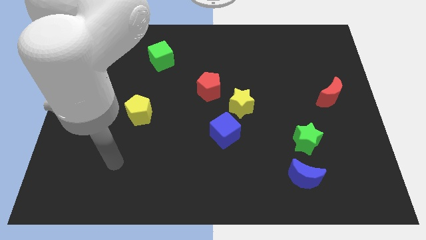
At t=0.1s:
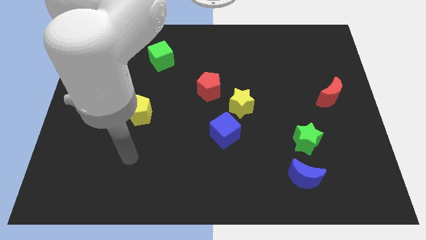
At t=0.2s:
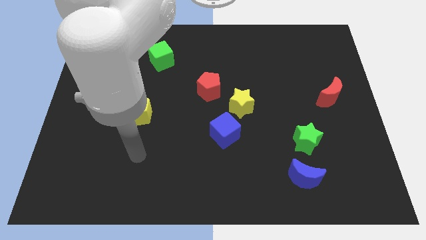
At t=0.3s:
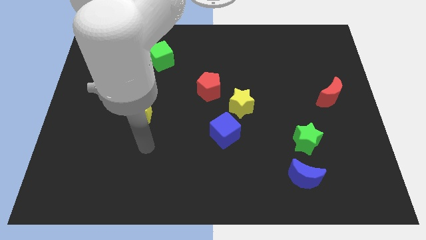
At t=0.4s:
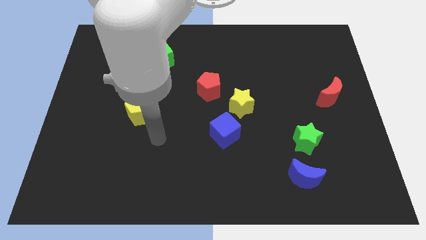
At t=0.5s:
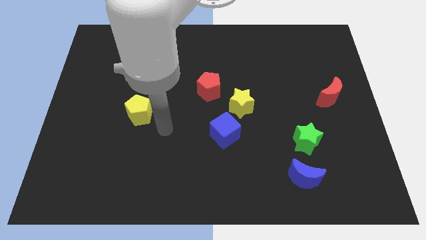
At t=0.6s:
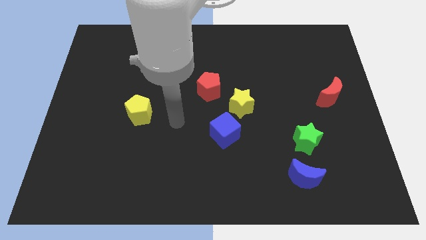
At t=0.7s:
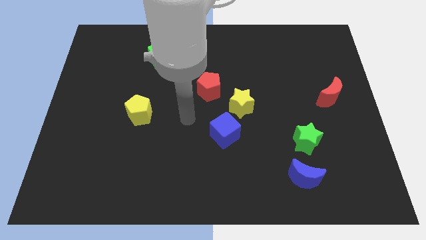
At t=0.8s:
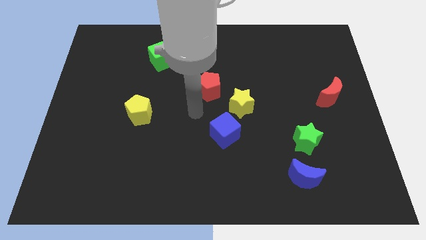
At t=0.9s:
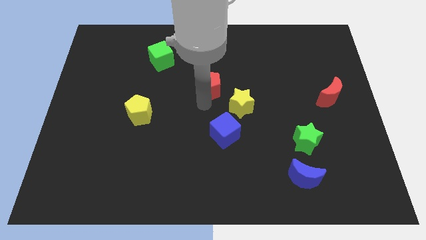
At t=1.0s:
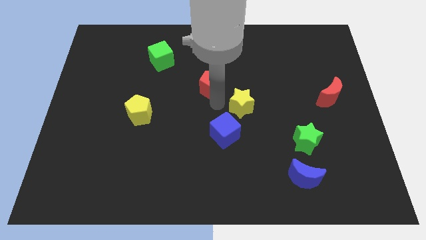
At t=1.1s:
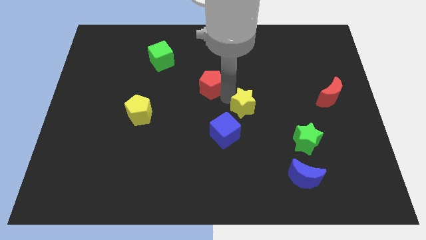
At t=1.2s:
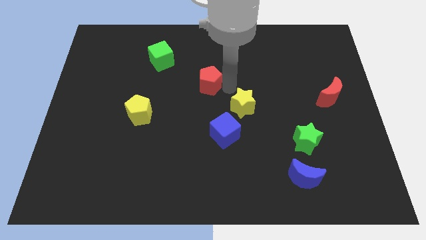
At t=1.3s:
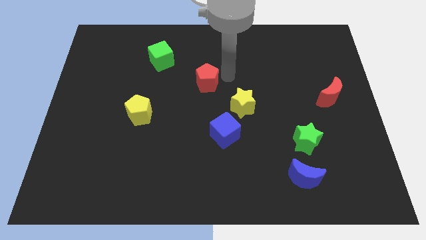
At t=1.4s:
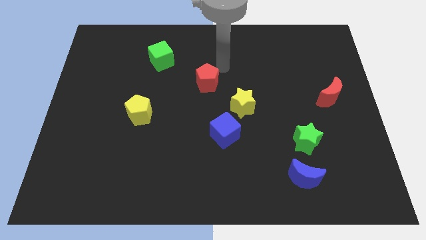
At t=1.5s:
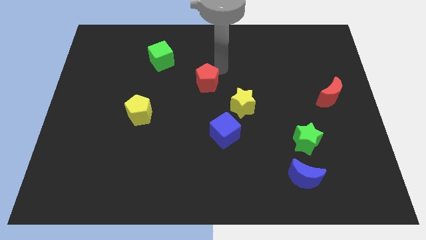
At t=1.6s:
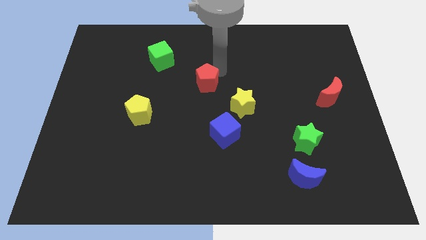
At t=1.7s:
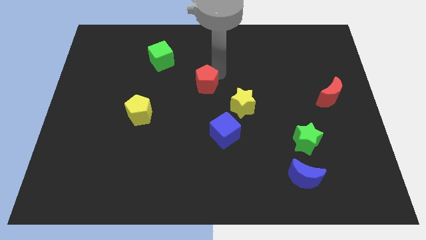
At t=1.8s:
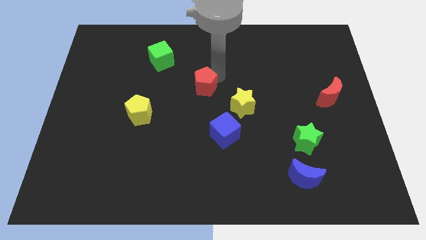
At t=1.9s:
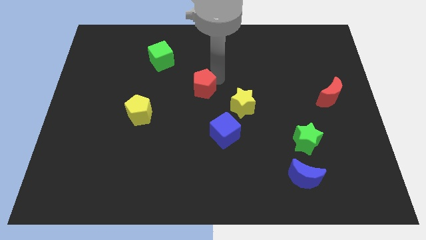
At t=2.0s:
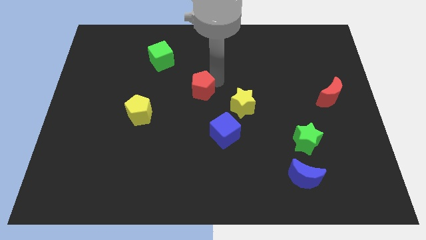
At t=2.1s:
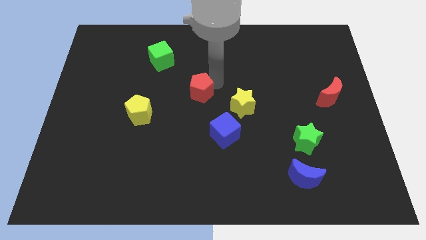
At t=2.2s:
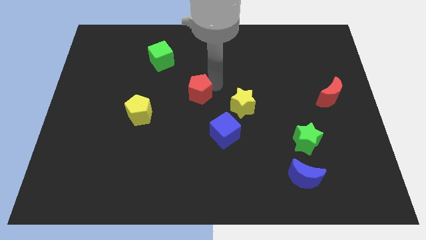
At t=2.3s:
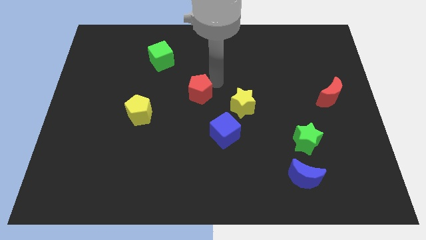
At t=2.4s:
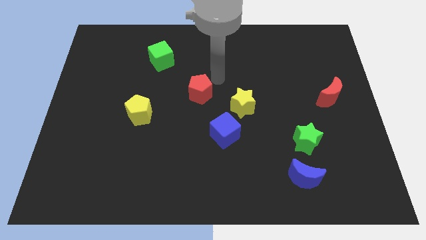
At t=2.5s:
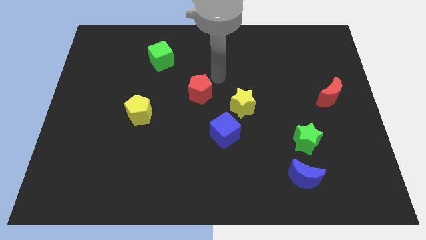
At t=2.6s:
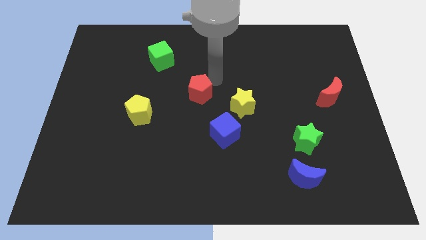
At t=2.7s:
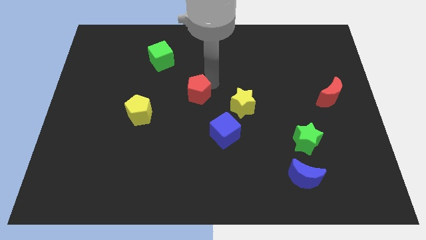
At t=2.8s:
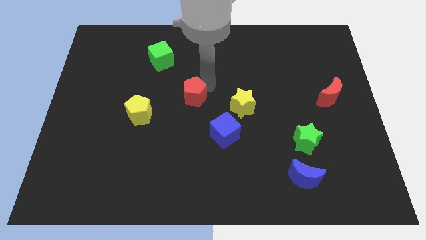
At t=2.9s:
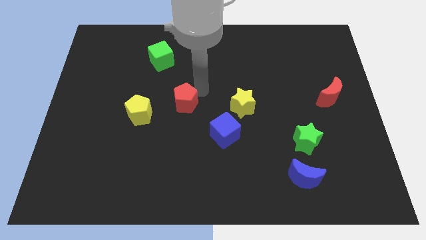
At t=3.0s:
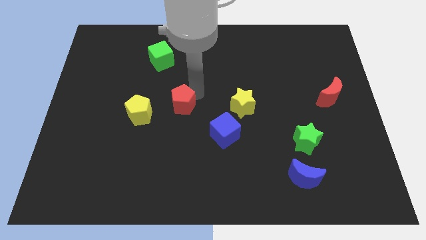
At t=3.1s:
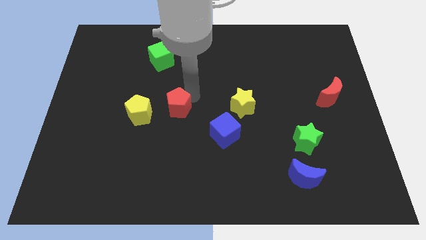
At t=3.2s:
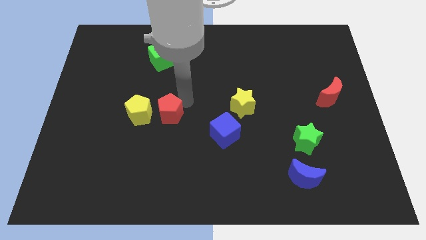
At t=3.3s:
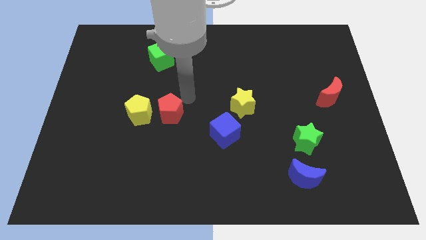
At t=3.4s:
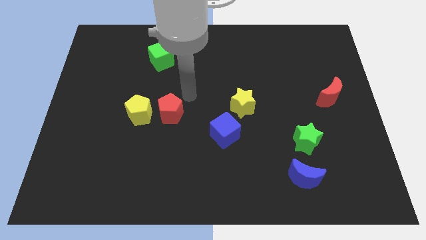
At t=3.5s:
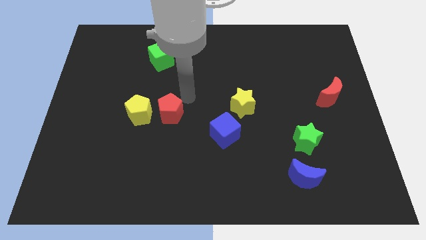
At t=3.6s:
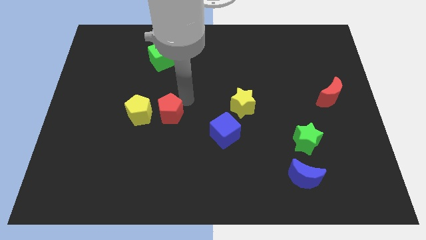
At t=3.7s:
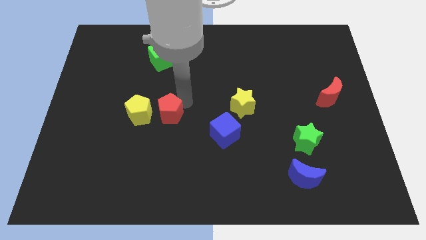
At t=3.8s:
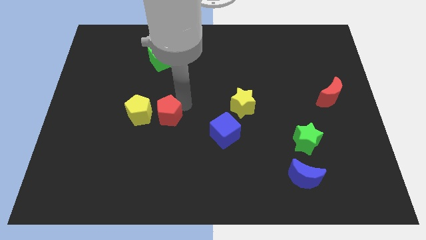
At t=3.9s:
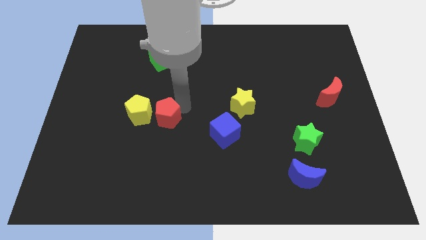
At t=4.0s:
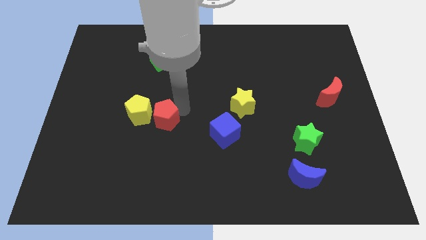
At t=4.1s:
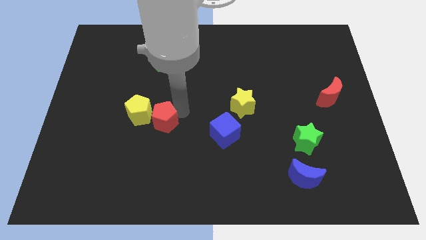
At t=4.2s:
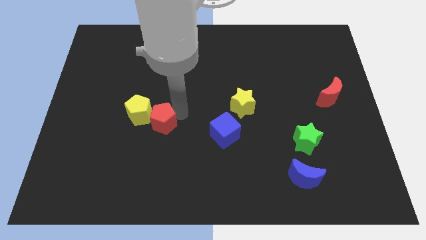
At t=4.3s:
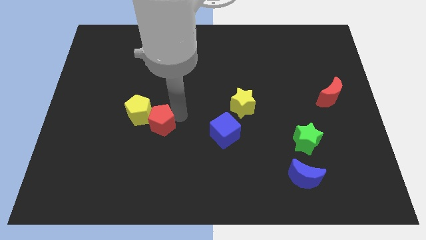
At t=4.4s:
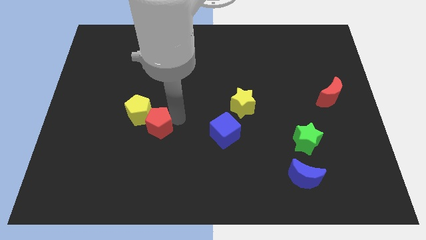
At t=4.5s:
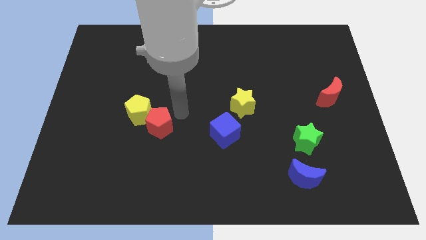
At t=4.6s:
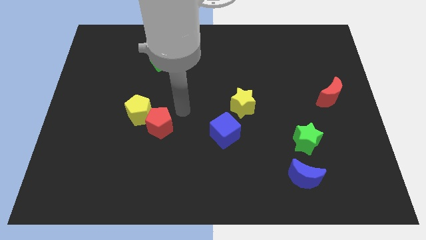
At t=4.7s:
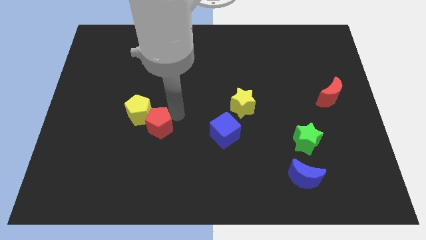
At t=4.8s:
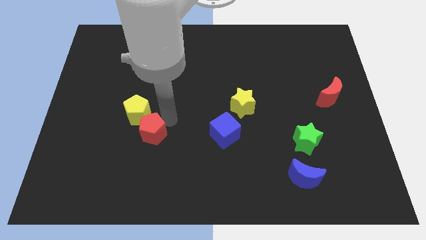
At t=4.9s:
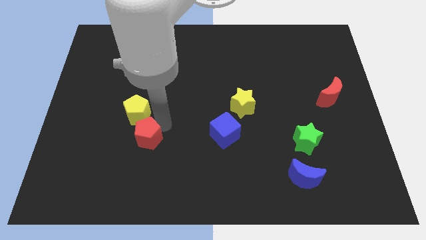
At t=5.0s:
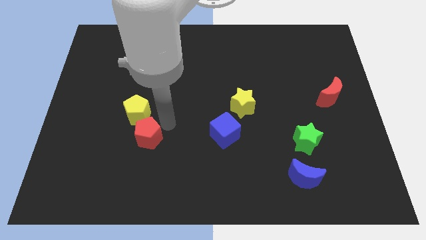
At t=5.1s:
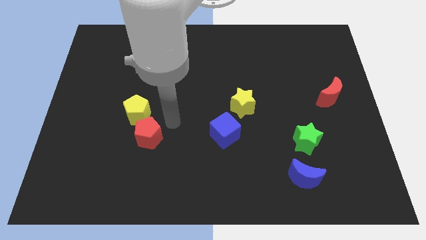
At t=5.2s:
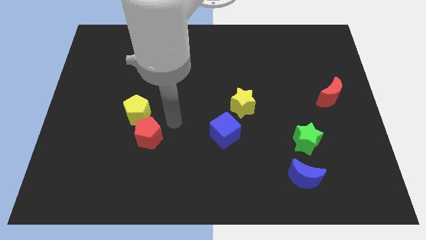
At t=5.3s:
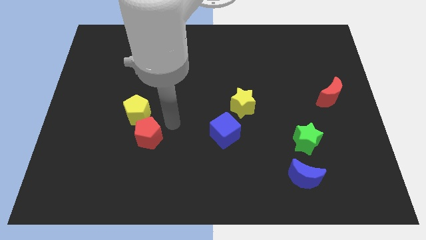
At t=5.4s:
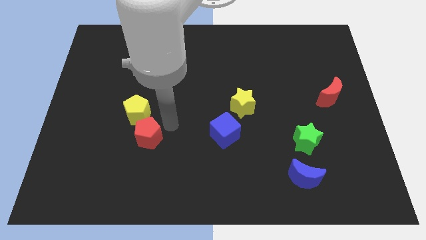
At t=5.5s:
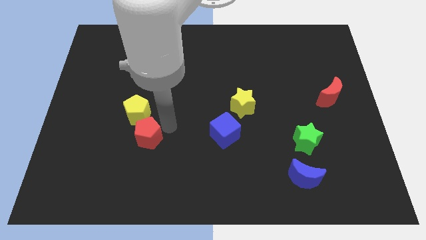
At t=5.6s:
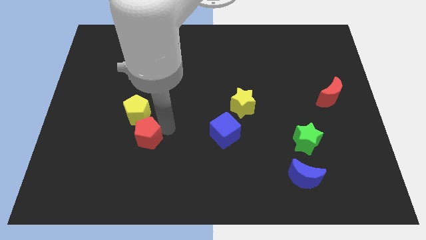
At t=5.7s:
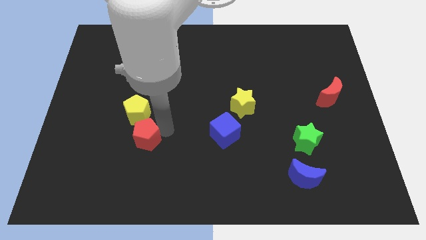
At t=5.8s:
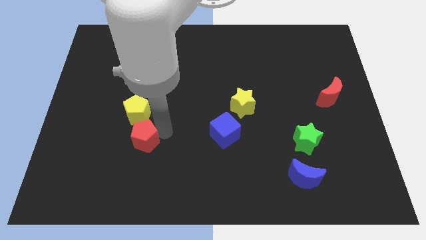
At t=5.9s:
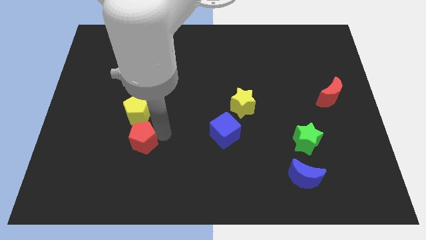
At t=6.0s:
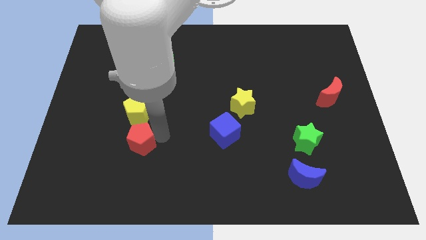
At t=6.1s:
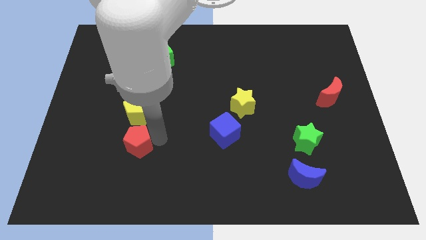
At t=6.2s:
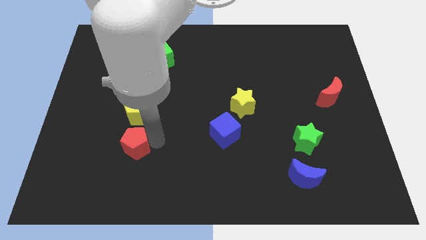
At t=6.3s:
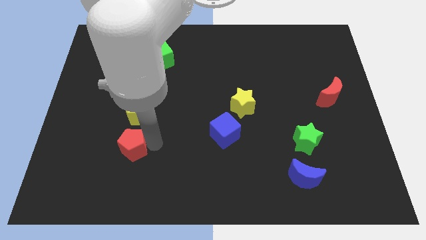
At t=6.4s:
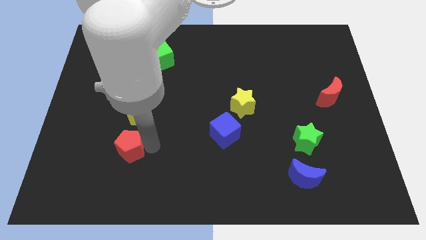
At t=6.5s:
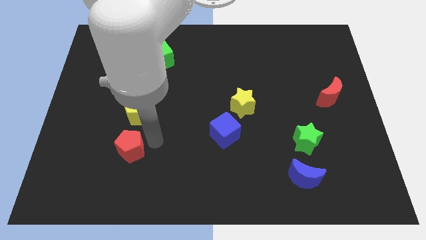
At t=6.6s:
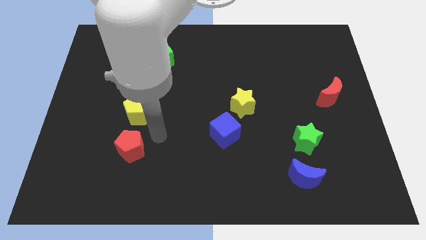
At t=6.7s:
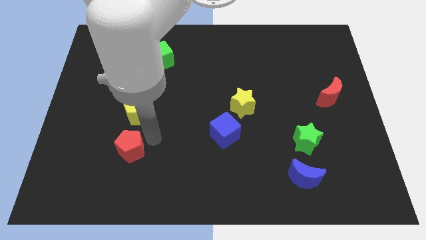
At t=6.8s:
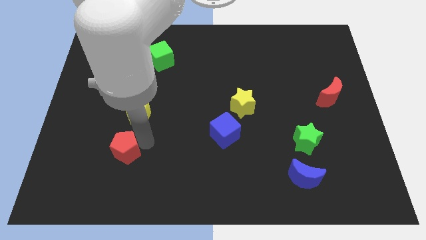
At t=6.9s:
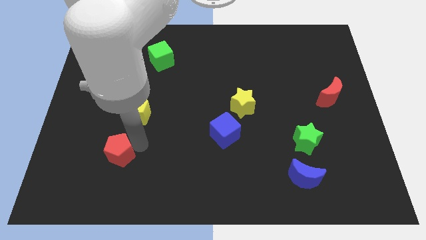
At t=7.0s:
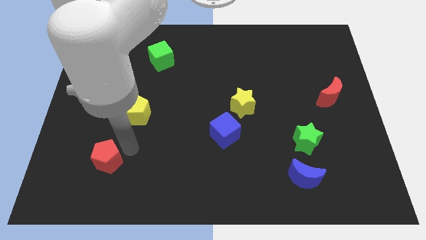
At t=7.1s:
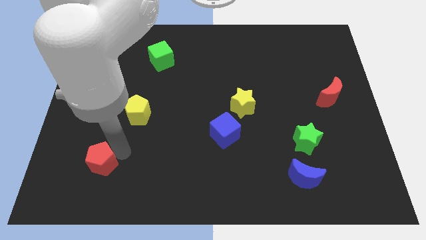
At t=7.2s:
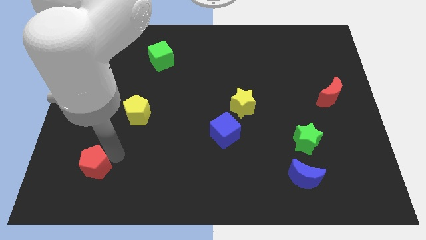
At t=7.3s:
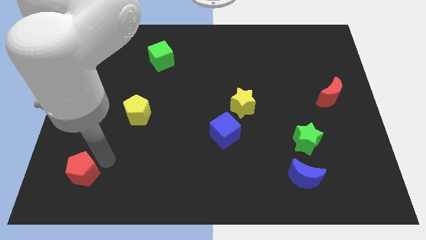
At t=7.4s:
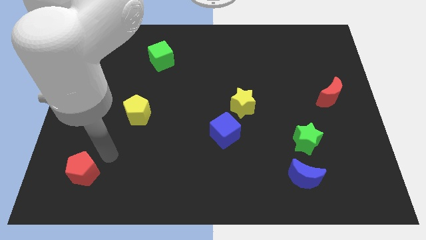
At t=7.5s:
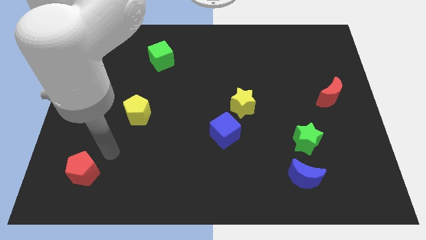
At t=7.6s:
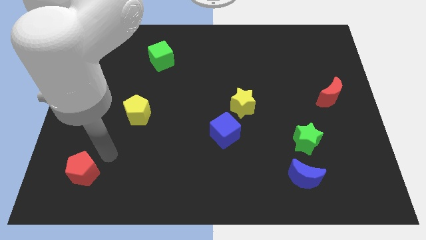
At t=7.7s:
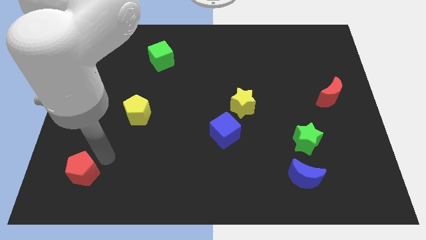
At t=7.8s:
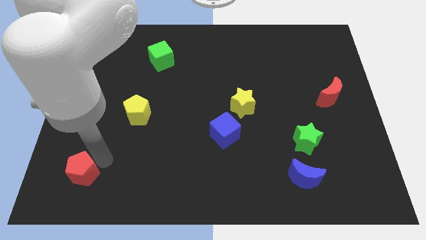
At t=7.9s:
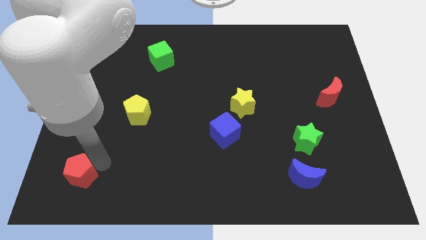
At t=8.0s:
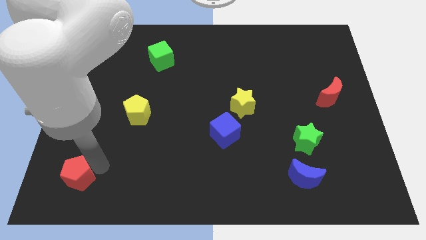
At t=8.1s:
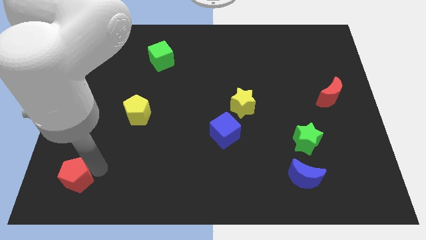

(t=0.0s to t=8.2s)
slide the red pentagon to the bottom left of the board
